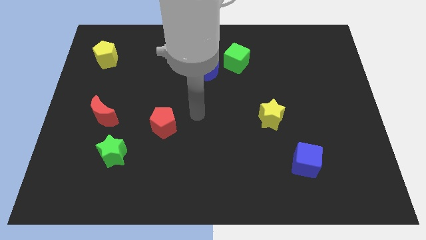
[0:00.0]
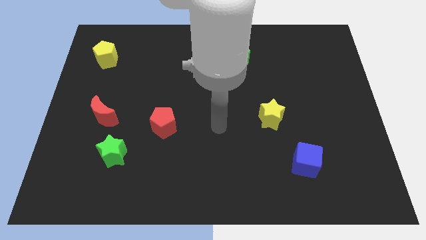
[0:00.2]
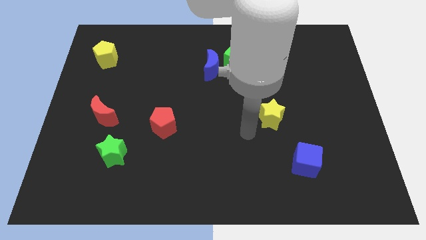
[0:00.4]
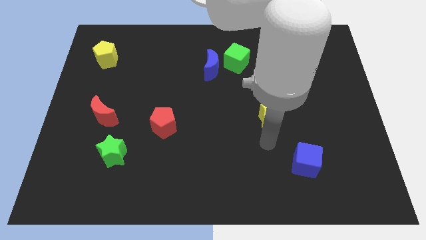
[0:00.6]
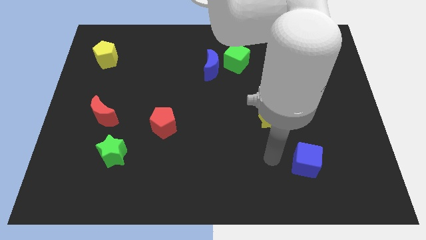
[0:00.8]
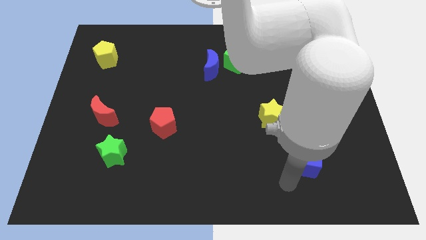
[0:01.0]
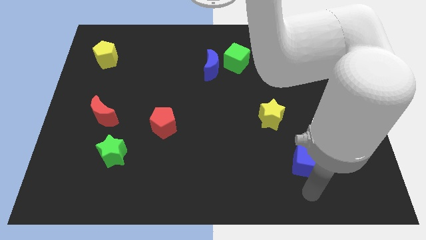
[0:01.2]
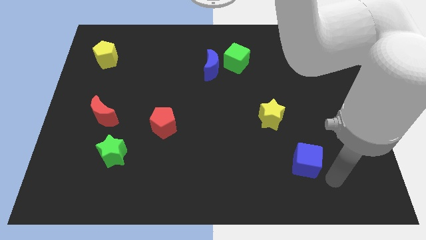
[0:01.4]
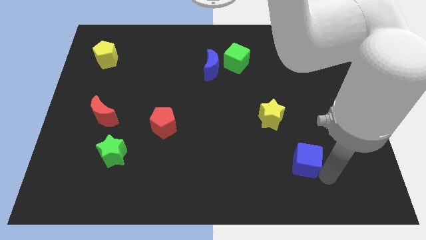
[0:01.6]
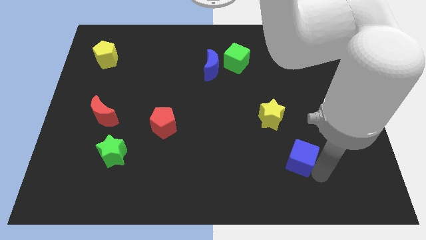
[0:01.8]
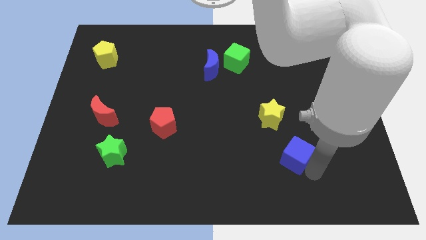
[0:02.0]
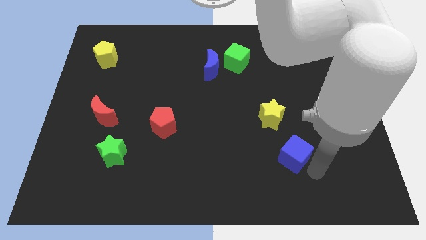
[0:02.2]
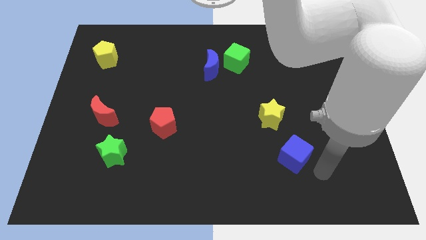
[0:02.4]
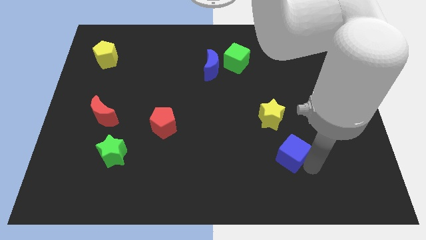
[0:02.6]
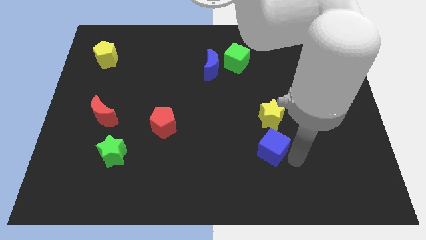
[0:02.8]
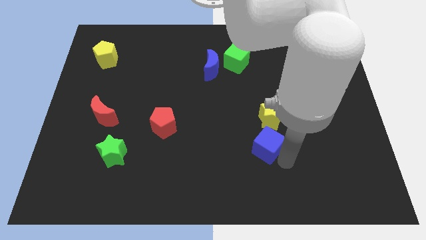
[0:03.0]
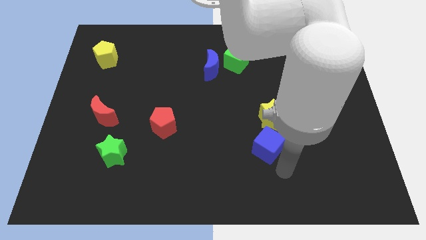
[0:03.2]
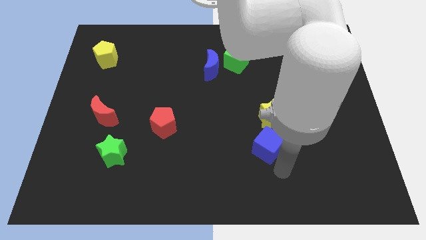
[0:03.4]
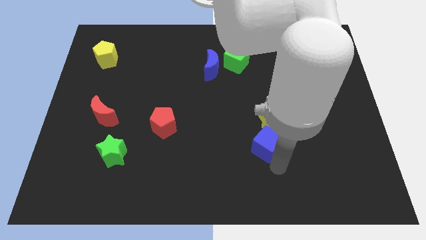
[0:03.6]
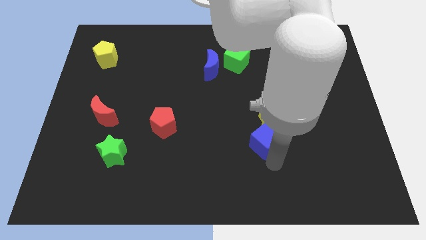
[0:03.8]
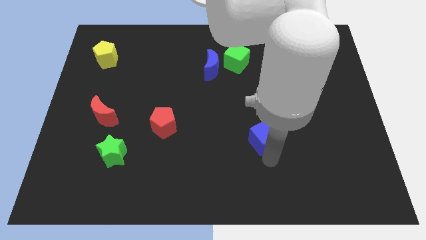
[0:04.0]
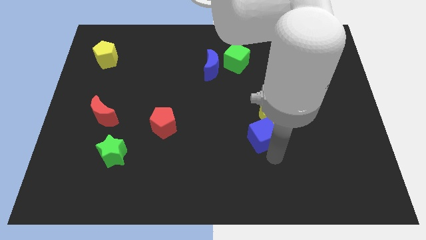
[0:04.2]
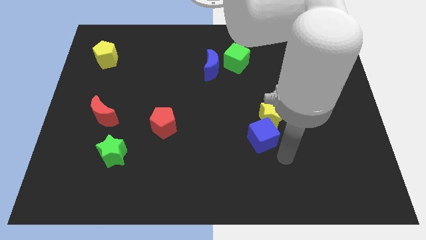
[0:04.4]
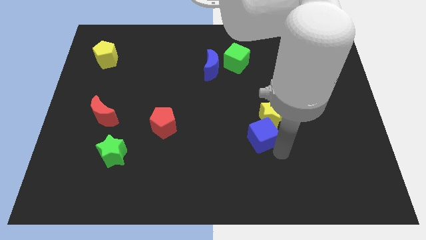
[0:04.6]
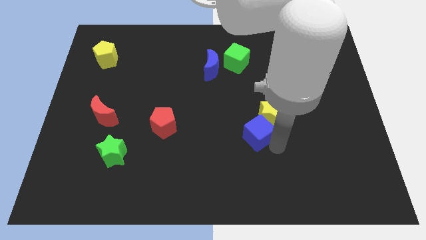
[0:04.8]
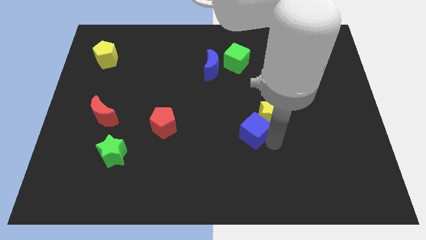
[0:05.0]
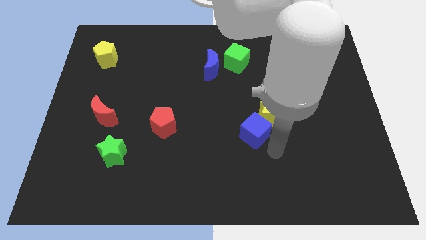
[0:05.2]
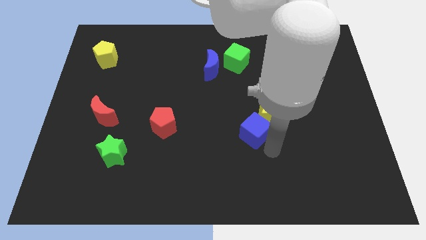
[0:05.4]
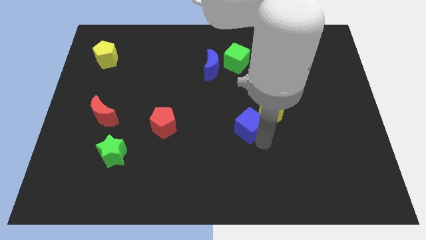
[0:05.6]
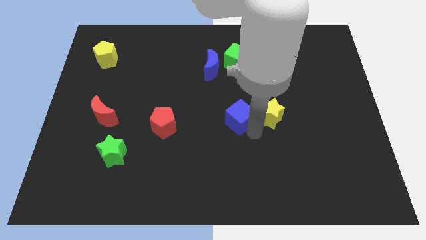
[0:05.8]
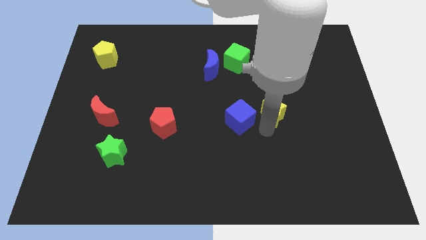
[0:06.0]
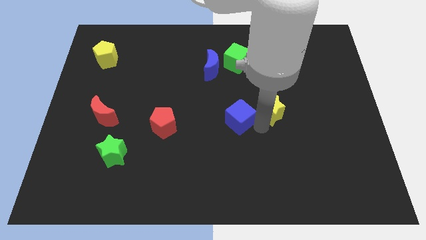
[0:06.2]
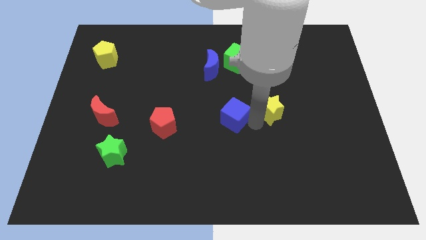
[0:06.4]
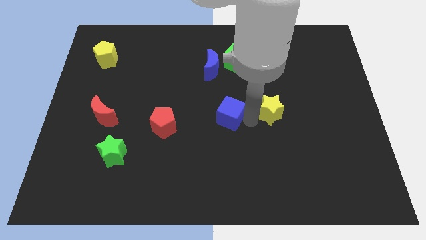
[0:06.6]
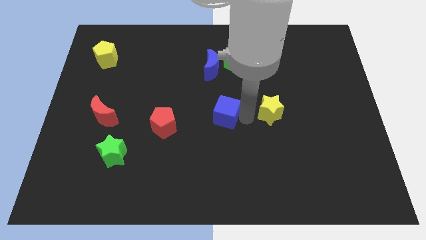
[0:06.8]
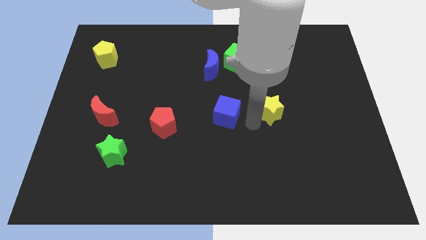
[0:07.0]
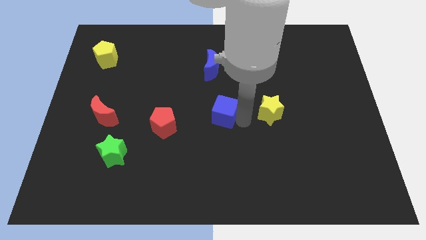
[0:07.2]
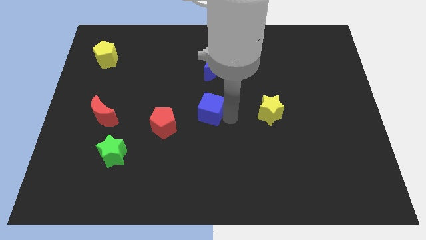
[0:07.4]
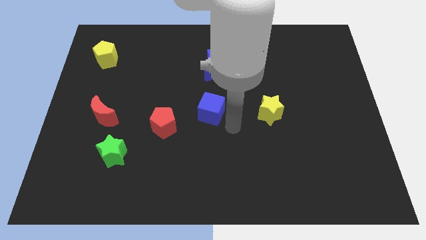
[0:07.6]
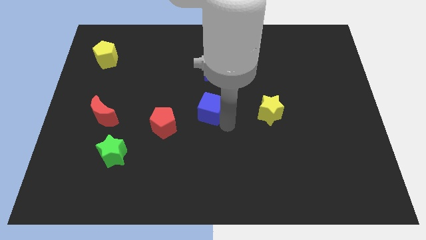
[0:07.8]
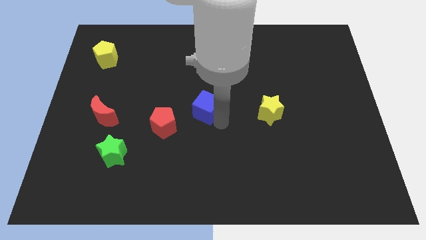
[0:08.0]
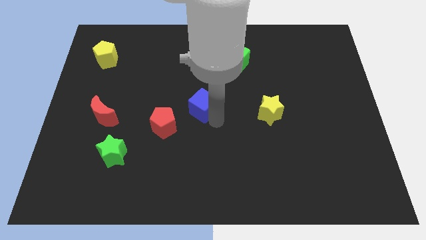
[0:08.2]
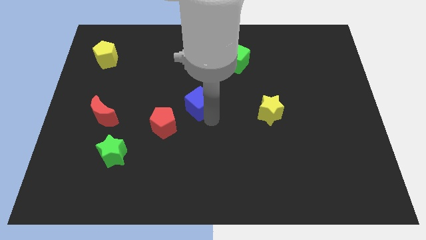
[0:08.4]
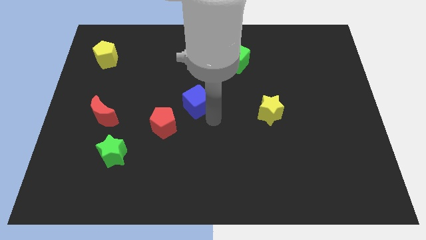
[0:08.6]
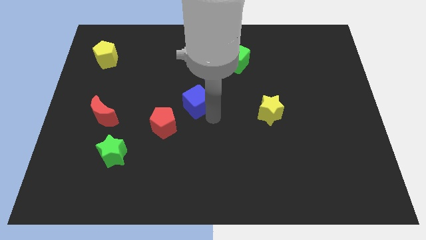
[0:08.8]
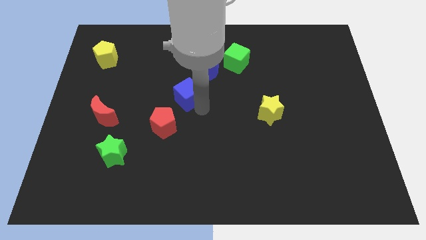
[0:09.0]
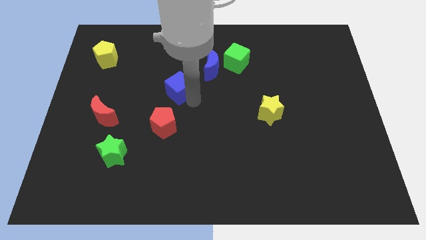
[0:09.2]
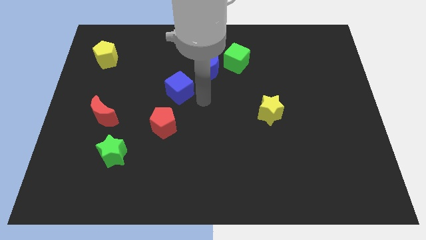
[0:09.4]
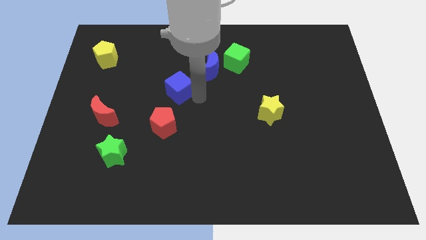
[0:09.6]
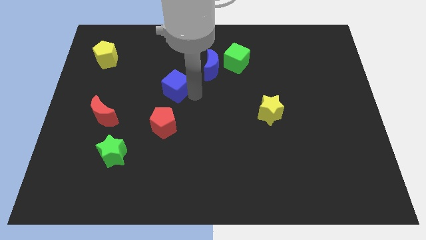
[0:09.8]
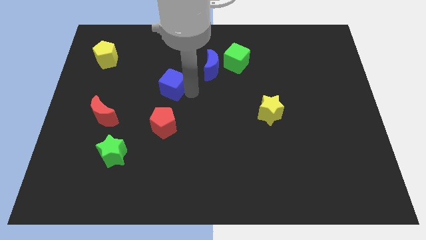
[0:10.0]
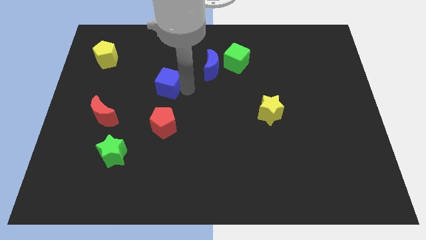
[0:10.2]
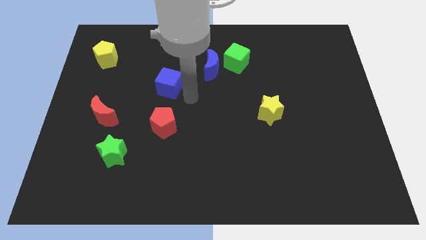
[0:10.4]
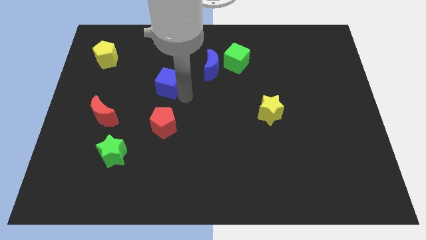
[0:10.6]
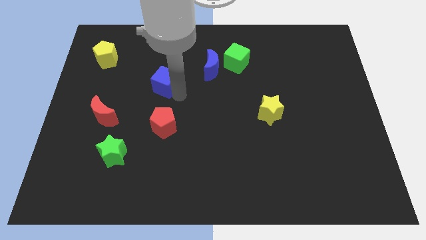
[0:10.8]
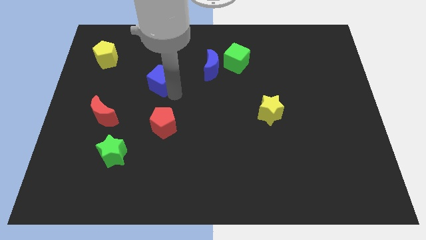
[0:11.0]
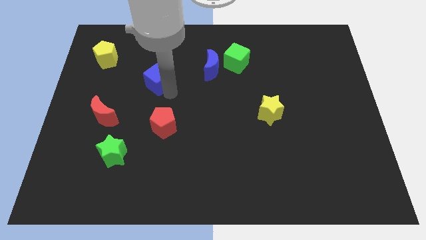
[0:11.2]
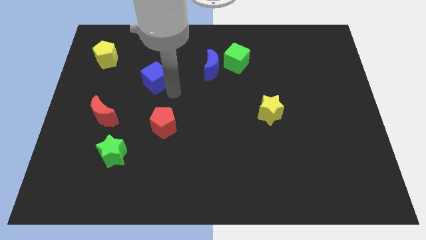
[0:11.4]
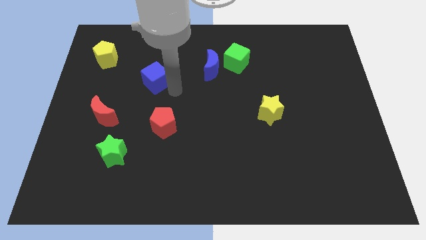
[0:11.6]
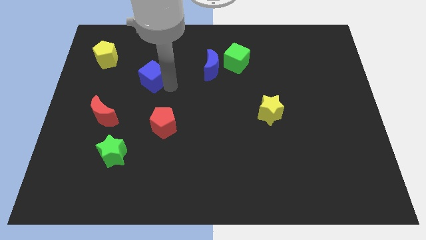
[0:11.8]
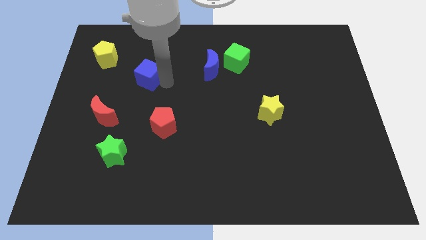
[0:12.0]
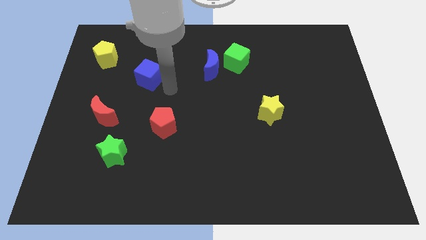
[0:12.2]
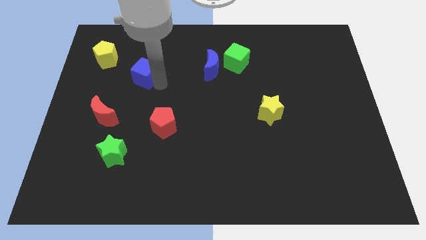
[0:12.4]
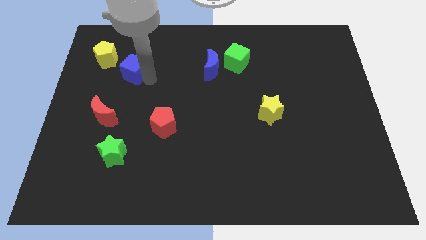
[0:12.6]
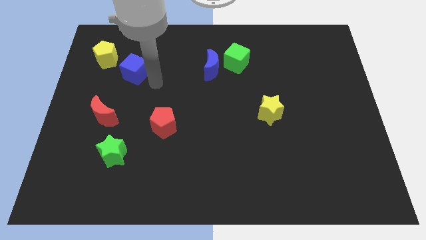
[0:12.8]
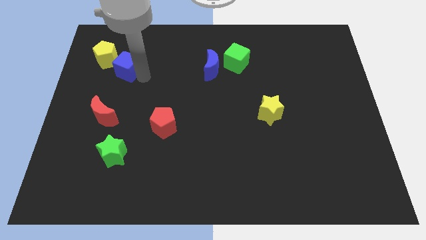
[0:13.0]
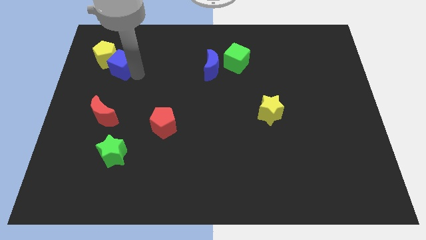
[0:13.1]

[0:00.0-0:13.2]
put the blue cube towards the yellow pentagon
